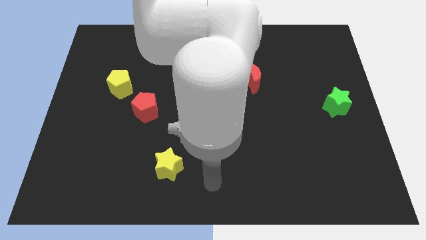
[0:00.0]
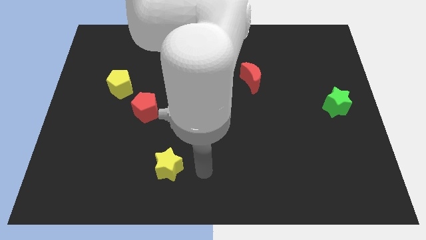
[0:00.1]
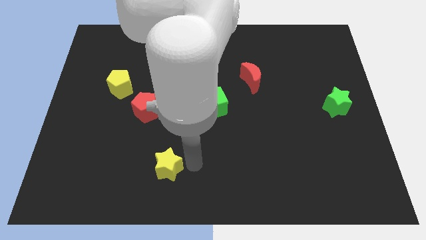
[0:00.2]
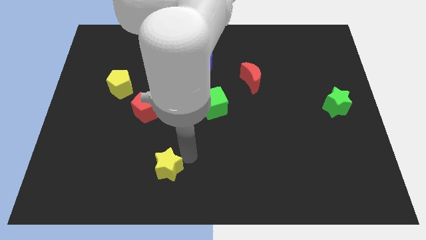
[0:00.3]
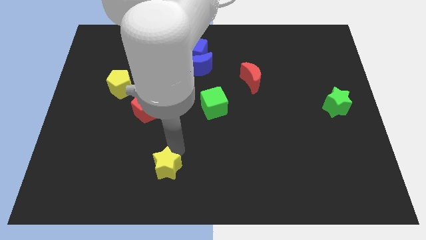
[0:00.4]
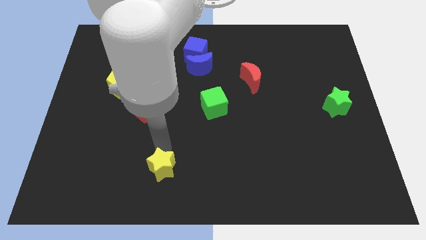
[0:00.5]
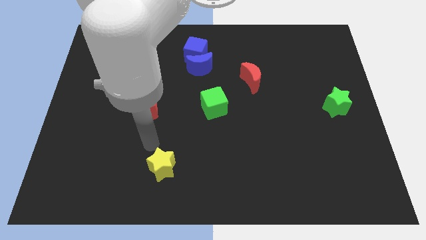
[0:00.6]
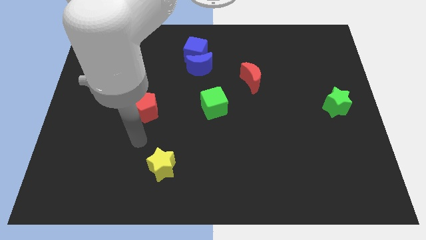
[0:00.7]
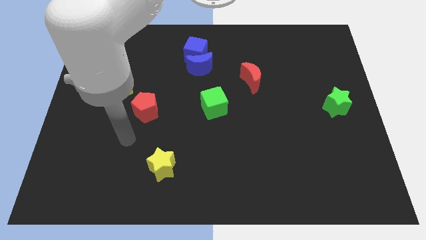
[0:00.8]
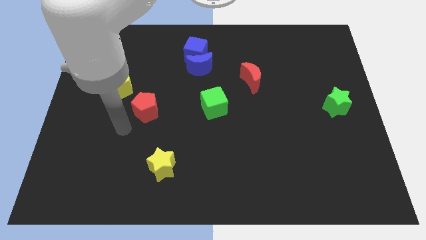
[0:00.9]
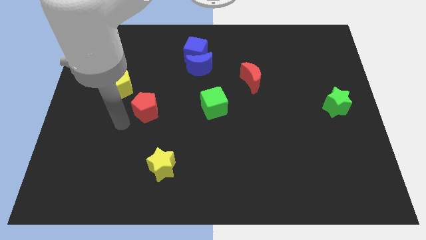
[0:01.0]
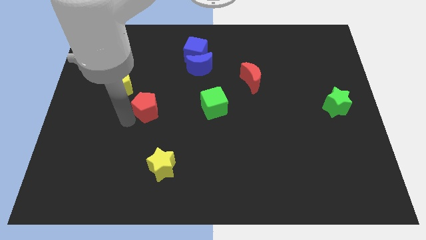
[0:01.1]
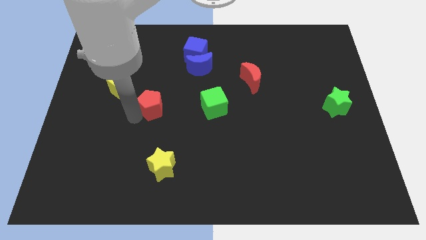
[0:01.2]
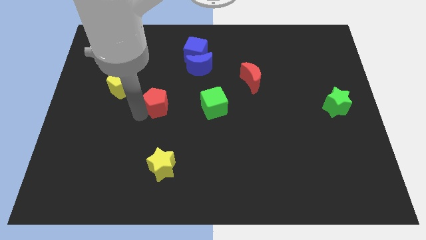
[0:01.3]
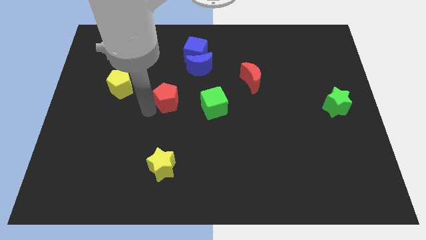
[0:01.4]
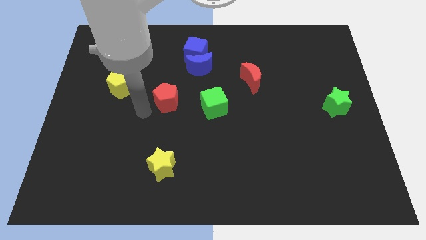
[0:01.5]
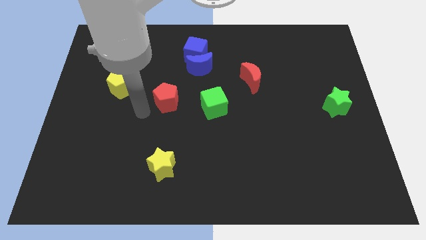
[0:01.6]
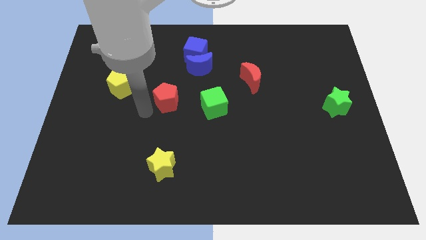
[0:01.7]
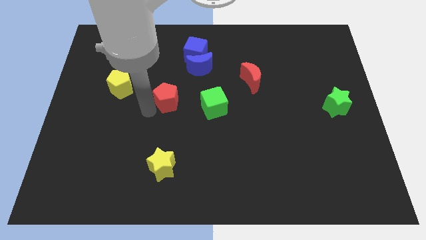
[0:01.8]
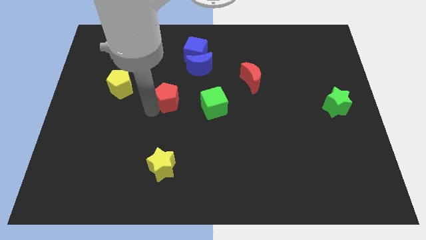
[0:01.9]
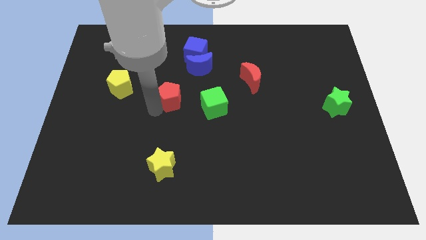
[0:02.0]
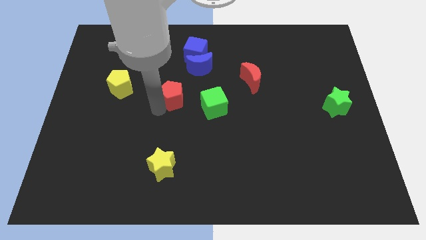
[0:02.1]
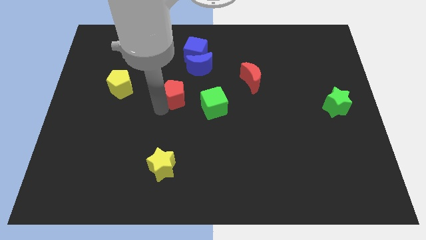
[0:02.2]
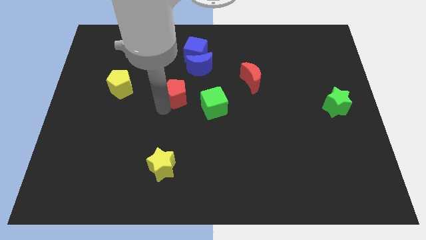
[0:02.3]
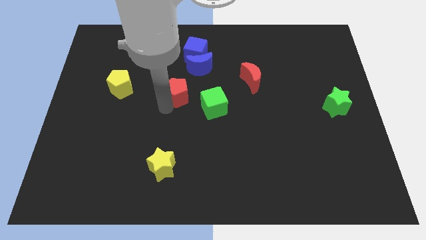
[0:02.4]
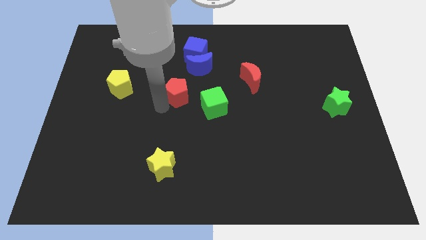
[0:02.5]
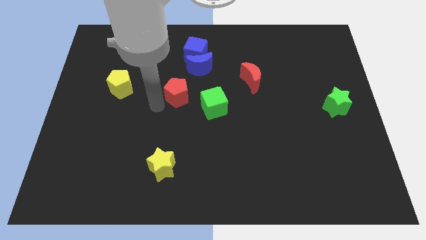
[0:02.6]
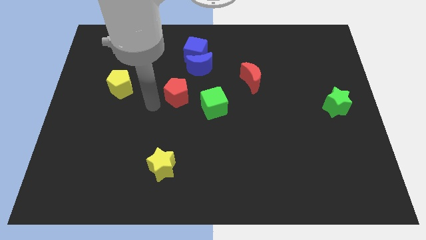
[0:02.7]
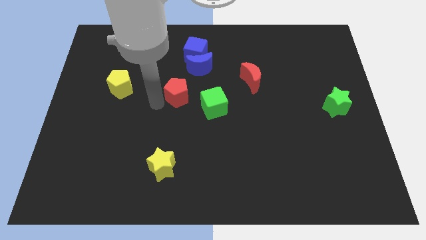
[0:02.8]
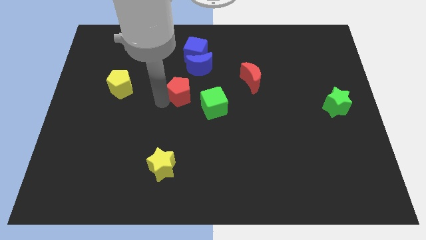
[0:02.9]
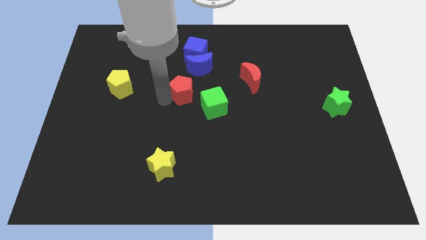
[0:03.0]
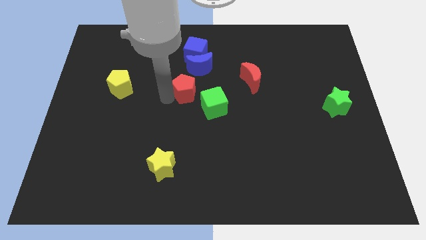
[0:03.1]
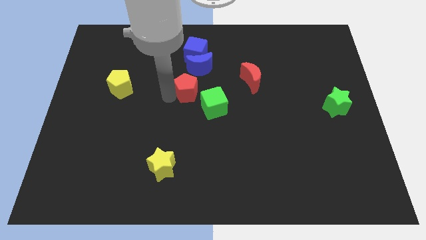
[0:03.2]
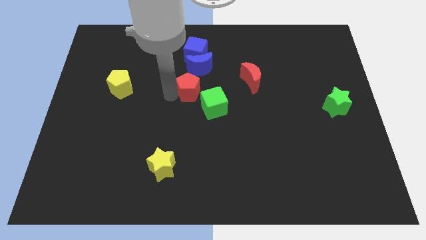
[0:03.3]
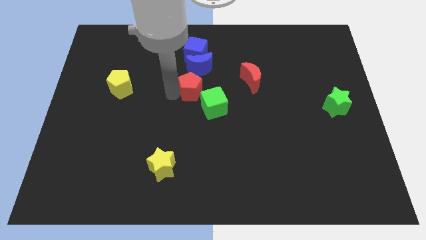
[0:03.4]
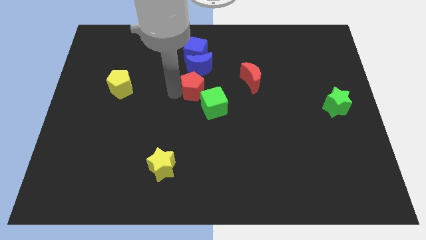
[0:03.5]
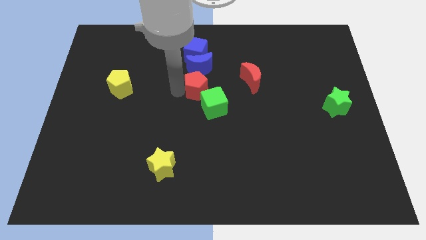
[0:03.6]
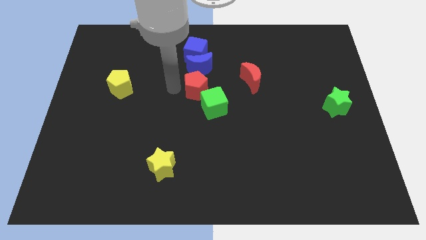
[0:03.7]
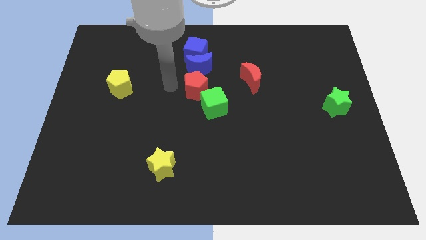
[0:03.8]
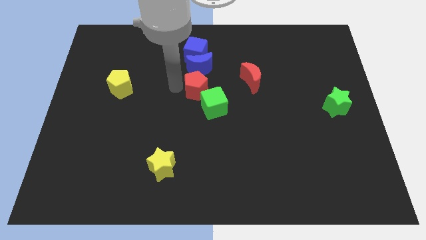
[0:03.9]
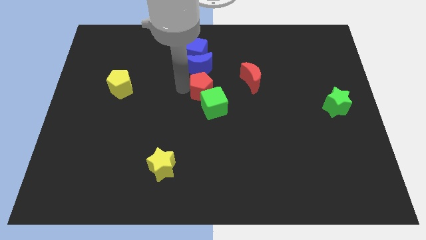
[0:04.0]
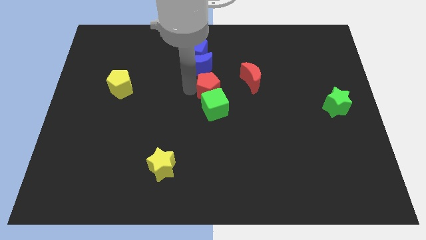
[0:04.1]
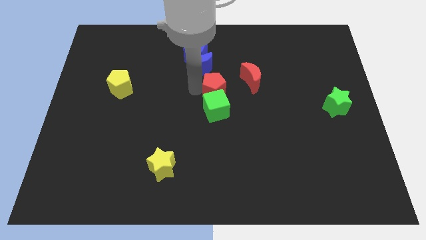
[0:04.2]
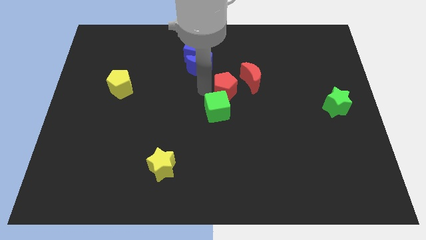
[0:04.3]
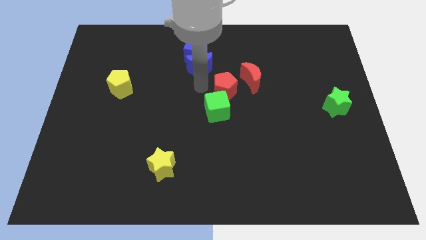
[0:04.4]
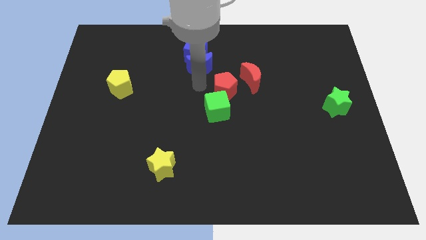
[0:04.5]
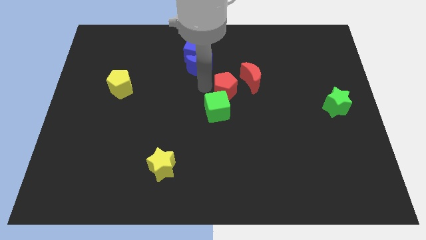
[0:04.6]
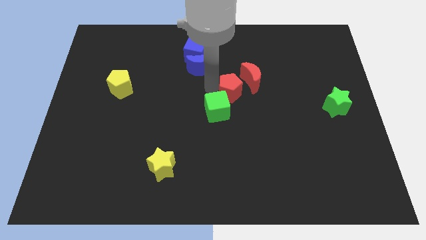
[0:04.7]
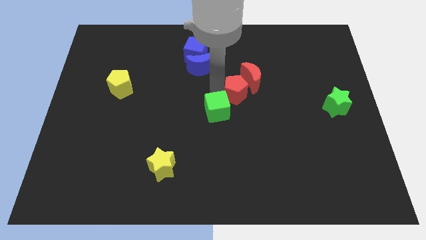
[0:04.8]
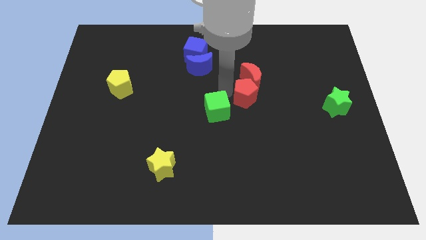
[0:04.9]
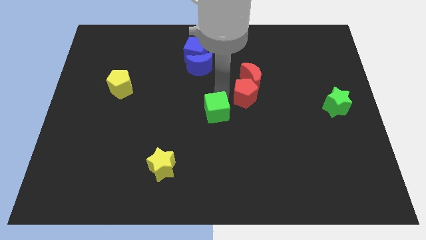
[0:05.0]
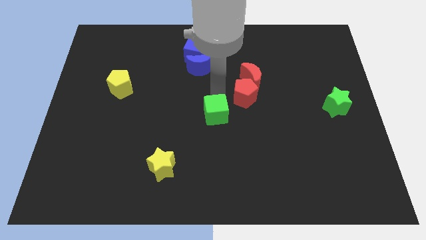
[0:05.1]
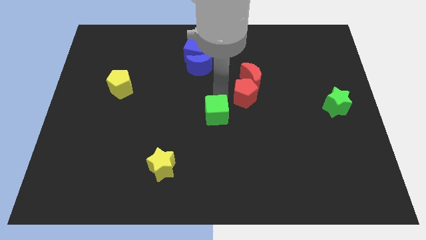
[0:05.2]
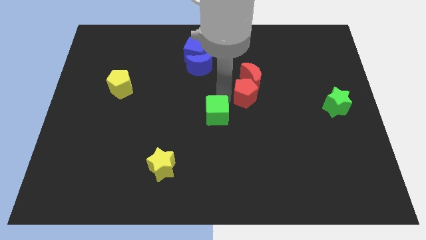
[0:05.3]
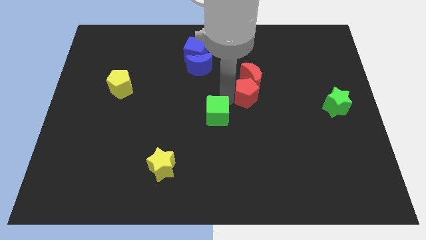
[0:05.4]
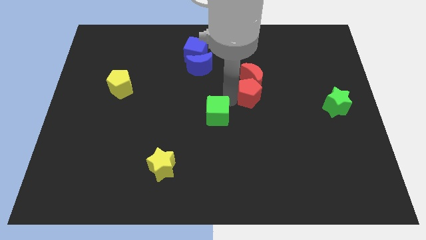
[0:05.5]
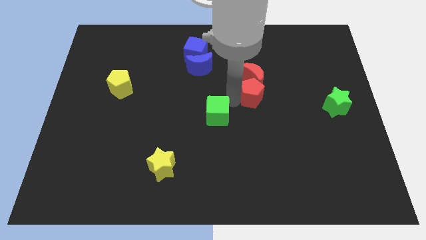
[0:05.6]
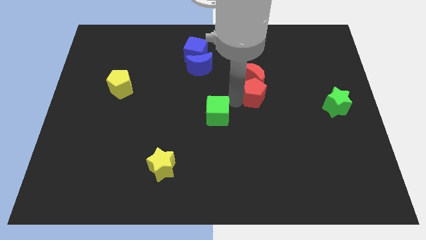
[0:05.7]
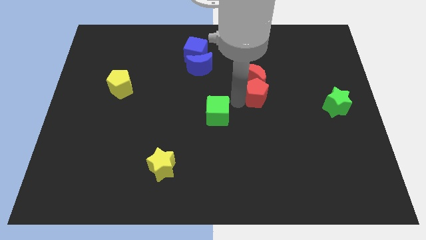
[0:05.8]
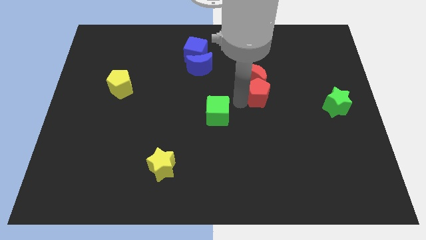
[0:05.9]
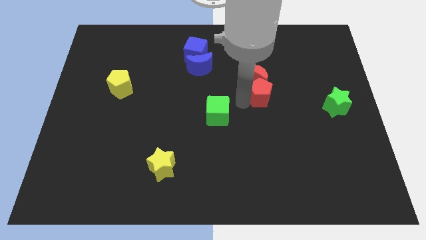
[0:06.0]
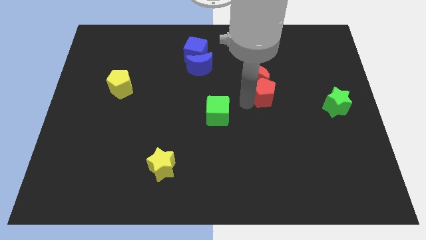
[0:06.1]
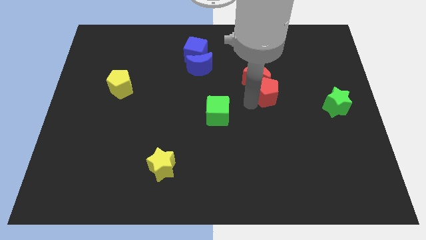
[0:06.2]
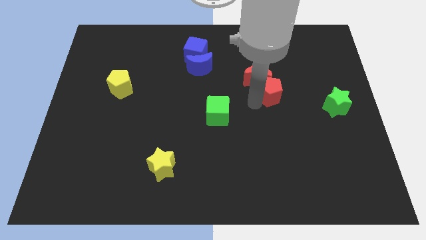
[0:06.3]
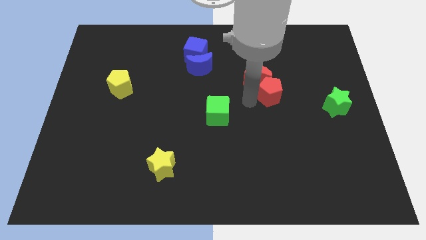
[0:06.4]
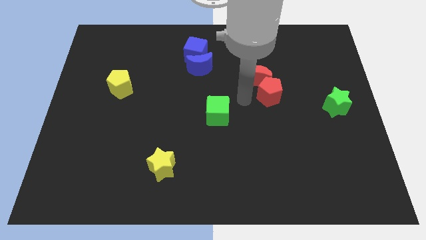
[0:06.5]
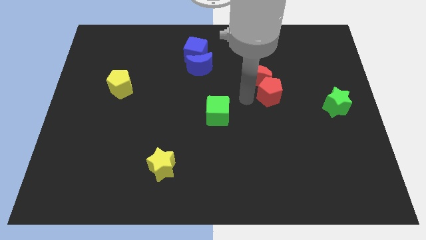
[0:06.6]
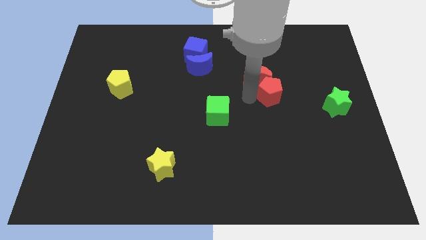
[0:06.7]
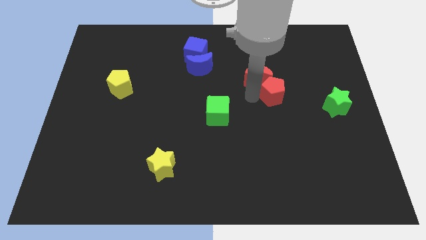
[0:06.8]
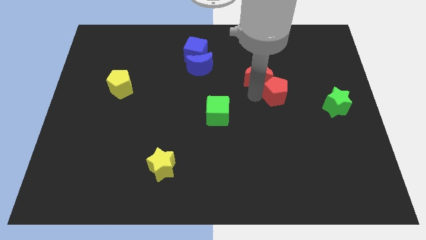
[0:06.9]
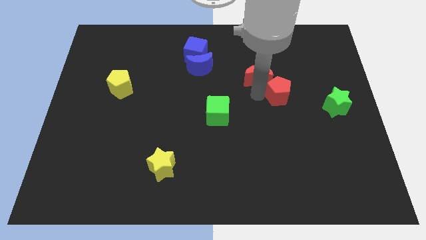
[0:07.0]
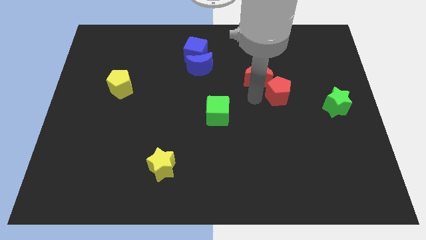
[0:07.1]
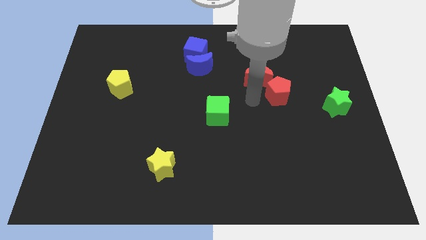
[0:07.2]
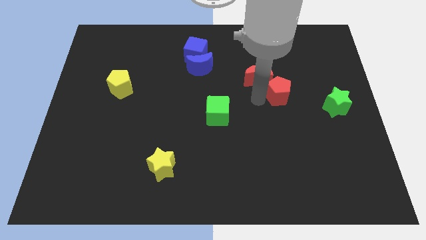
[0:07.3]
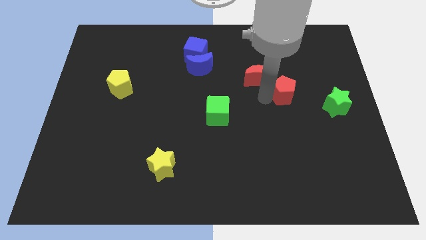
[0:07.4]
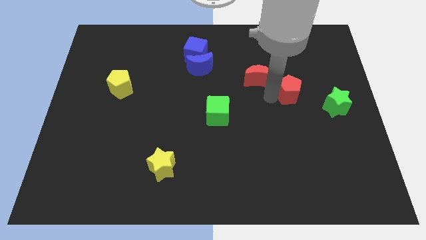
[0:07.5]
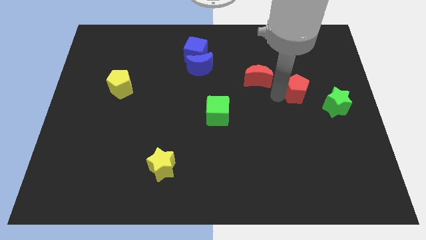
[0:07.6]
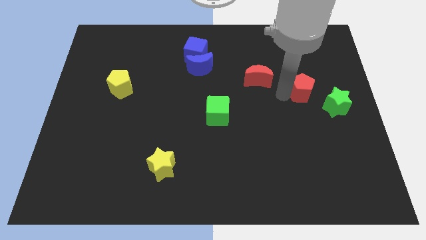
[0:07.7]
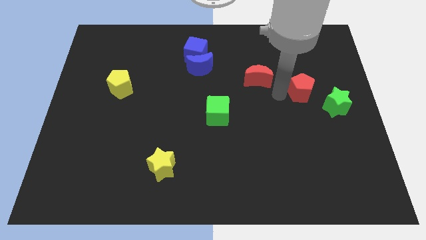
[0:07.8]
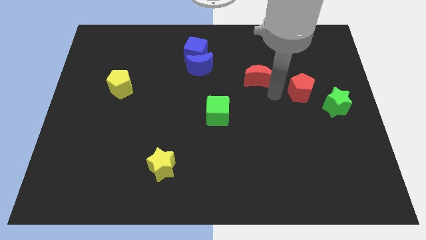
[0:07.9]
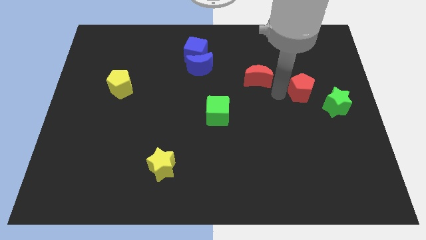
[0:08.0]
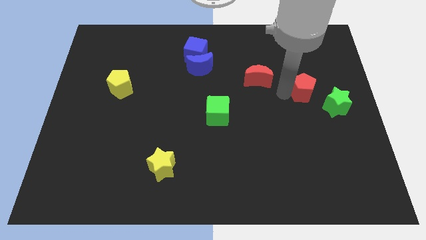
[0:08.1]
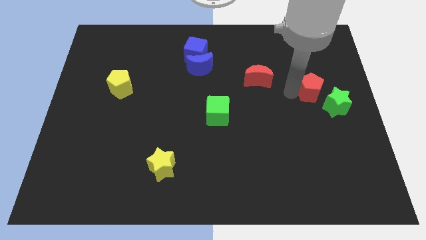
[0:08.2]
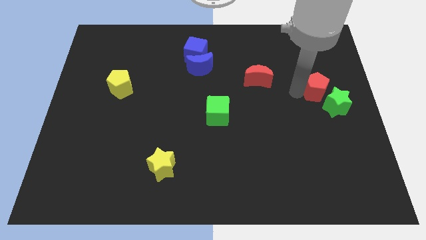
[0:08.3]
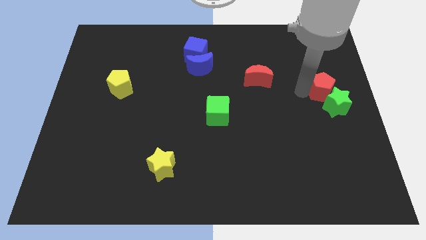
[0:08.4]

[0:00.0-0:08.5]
put the red pentagon to the center right
